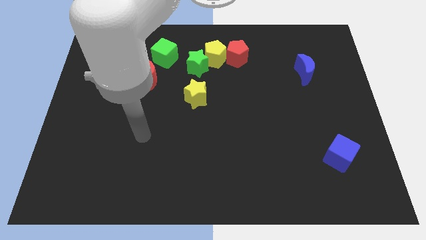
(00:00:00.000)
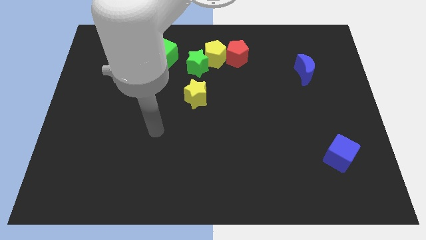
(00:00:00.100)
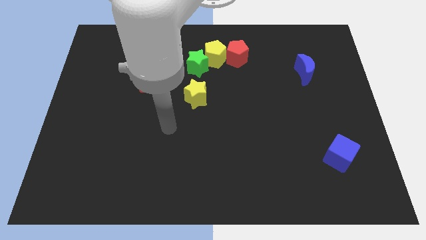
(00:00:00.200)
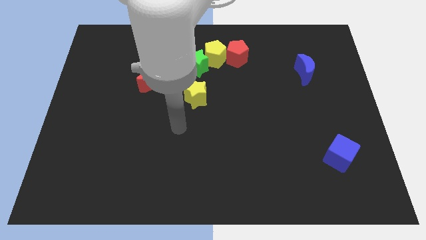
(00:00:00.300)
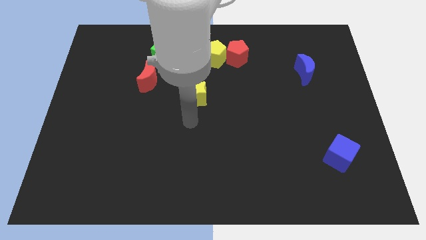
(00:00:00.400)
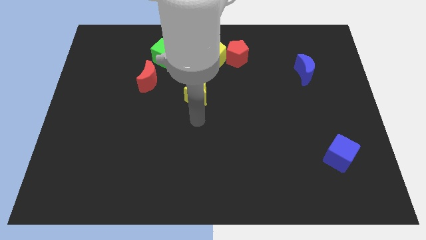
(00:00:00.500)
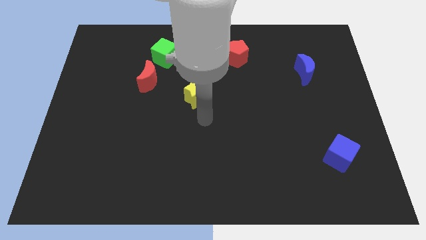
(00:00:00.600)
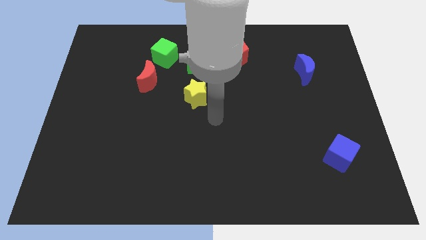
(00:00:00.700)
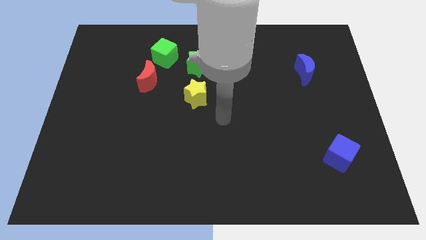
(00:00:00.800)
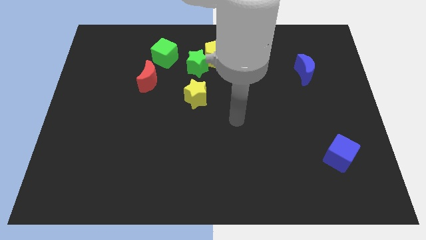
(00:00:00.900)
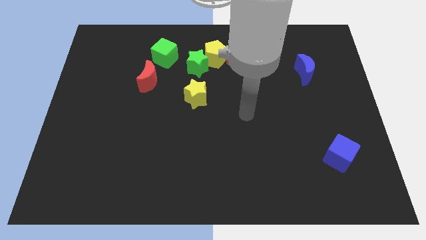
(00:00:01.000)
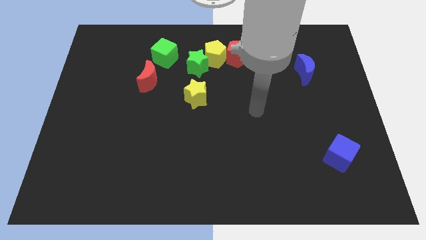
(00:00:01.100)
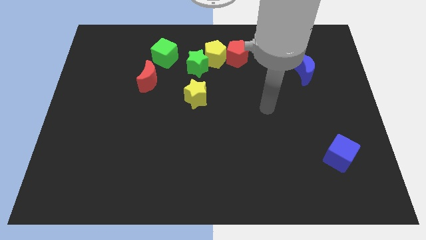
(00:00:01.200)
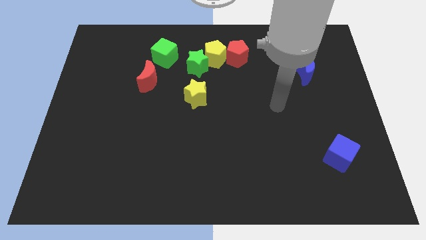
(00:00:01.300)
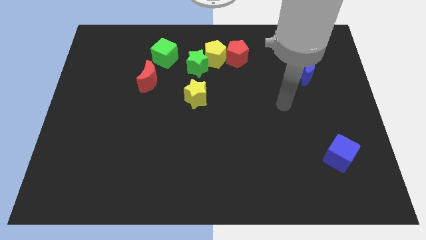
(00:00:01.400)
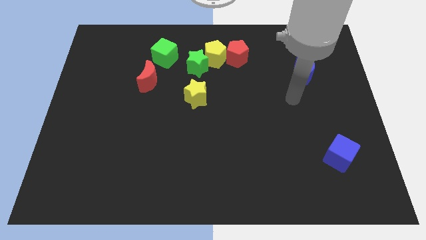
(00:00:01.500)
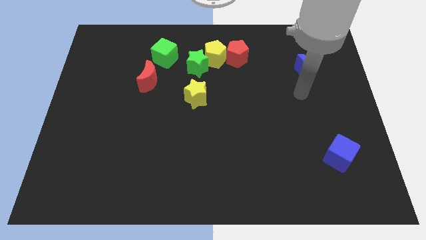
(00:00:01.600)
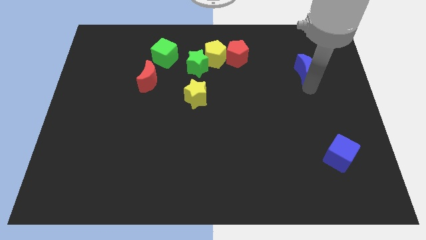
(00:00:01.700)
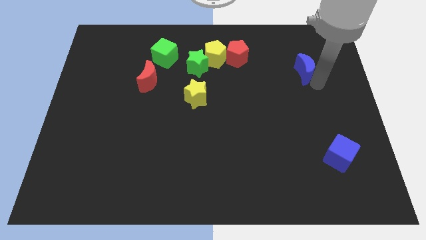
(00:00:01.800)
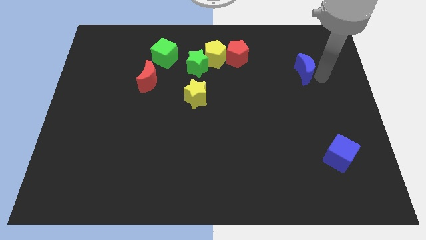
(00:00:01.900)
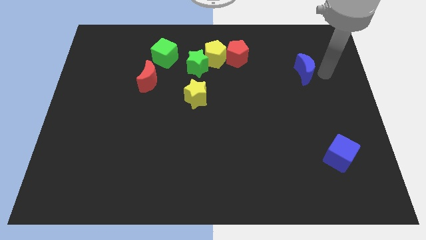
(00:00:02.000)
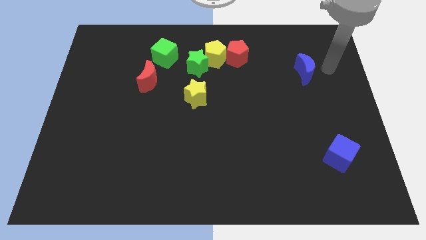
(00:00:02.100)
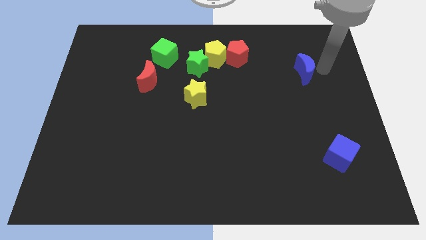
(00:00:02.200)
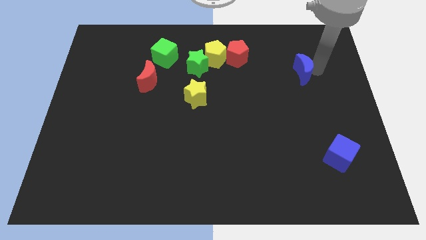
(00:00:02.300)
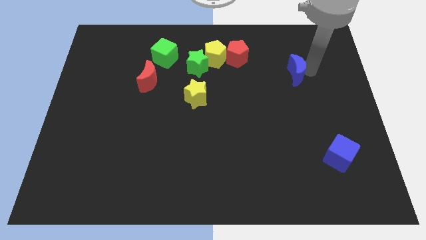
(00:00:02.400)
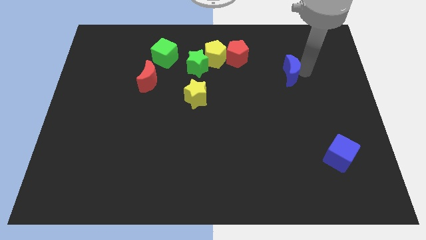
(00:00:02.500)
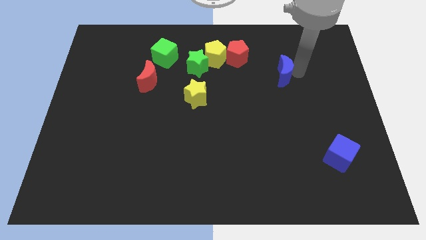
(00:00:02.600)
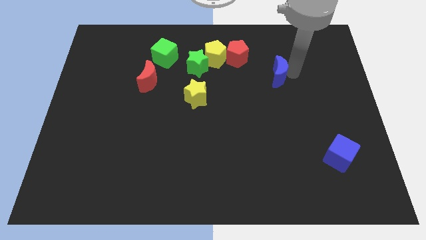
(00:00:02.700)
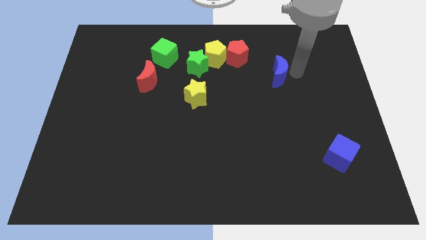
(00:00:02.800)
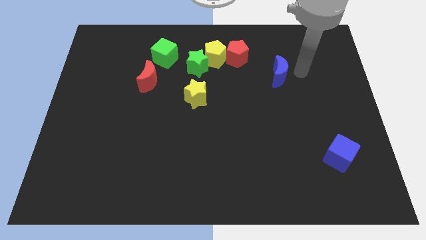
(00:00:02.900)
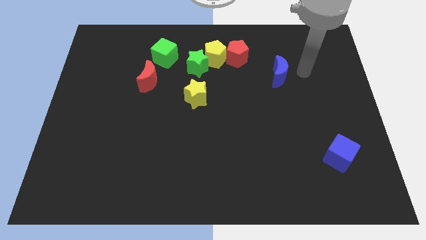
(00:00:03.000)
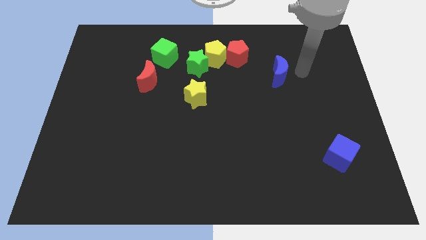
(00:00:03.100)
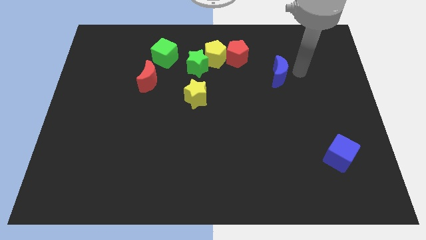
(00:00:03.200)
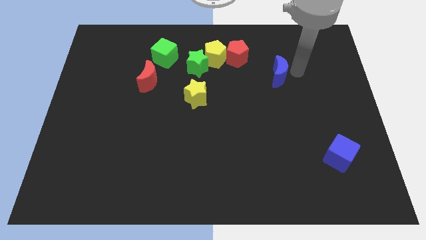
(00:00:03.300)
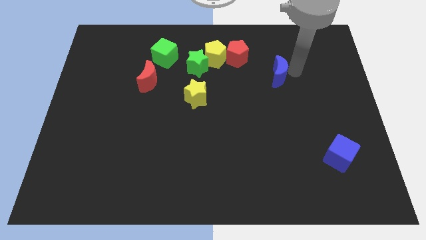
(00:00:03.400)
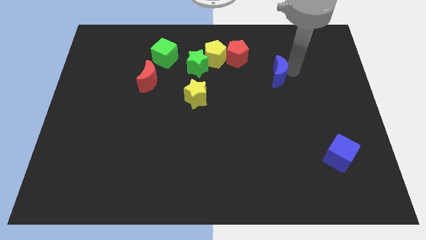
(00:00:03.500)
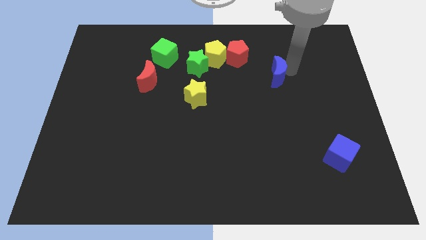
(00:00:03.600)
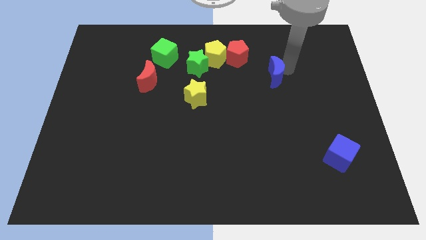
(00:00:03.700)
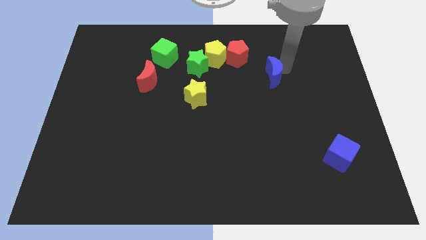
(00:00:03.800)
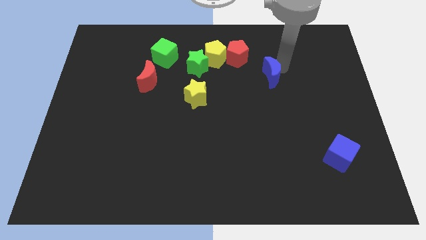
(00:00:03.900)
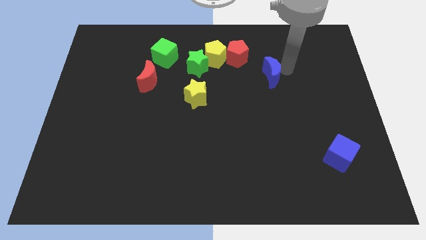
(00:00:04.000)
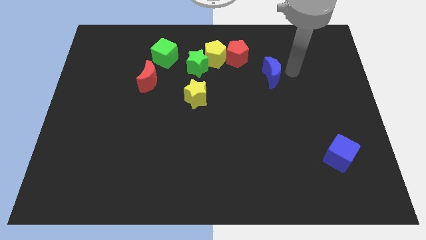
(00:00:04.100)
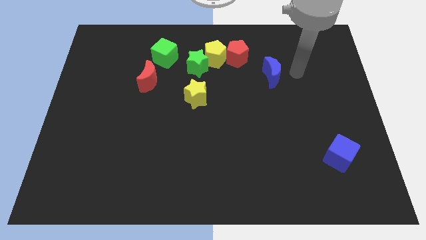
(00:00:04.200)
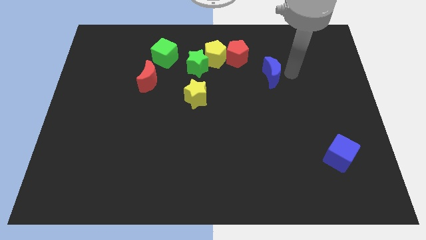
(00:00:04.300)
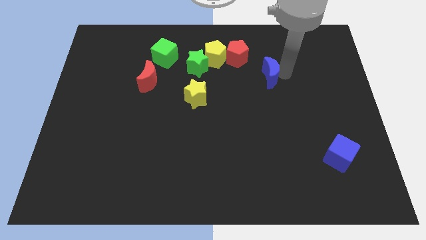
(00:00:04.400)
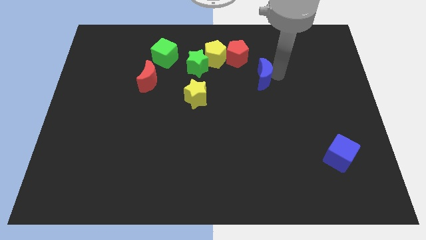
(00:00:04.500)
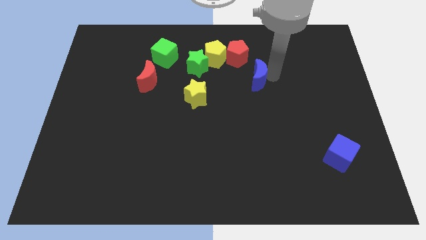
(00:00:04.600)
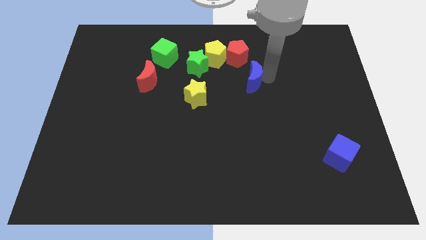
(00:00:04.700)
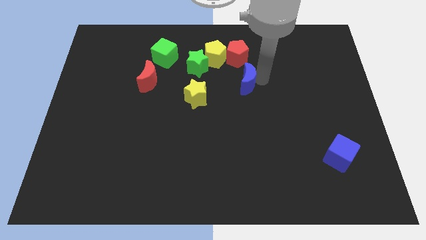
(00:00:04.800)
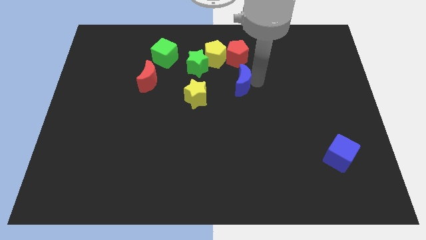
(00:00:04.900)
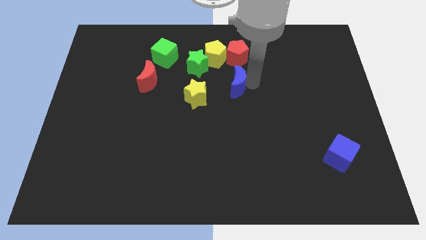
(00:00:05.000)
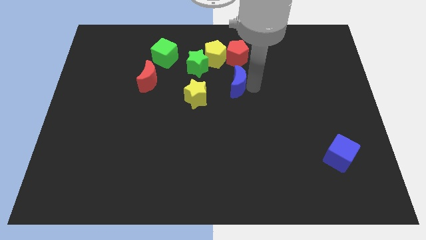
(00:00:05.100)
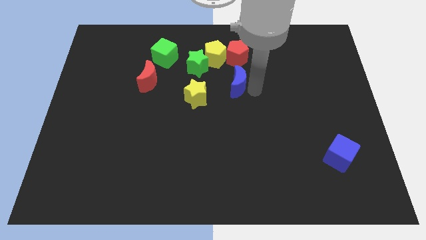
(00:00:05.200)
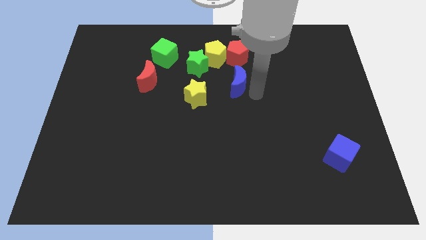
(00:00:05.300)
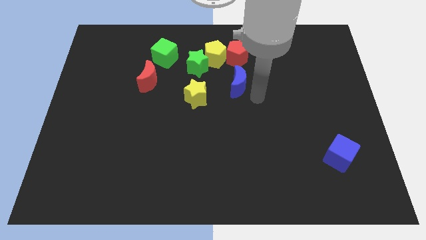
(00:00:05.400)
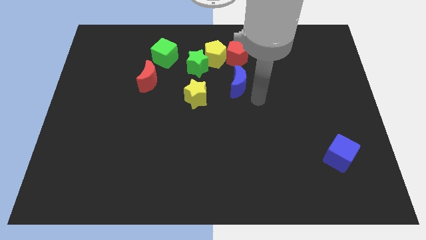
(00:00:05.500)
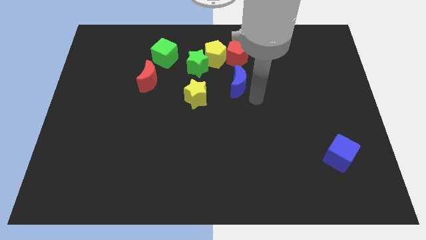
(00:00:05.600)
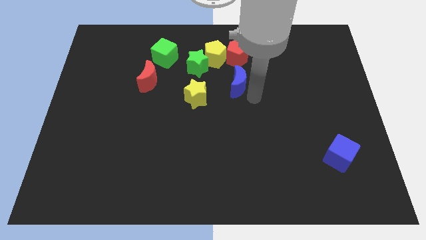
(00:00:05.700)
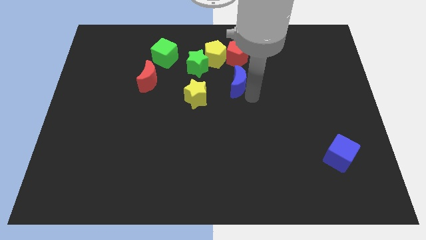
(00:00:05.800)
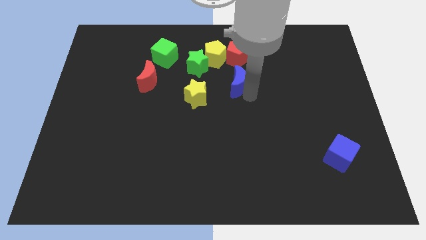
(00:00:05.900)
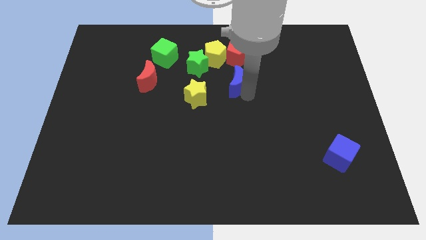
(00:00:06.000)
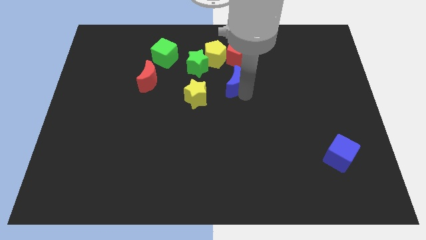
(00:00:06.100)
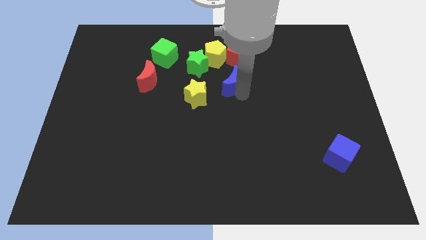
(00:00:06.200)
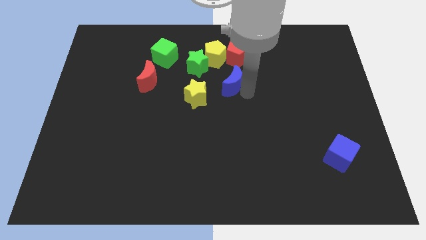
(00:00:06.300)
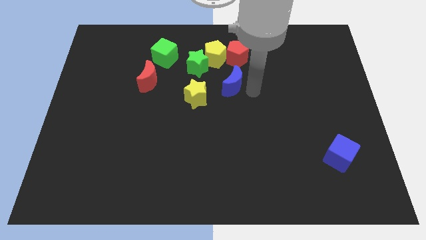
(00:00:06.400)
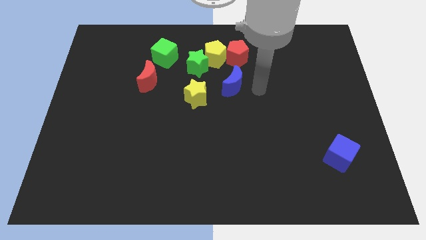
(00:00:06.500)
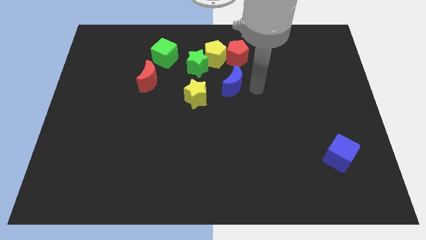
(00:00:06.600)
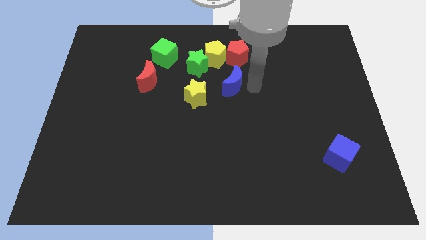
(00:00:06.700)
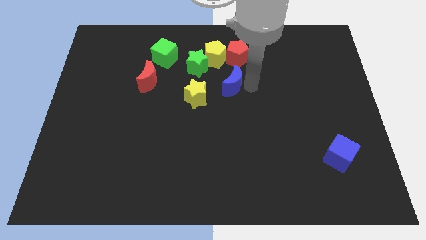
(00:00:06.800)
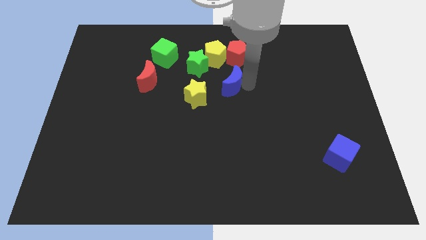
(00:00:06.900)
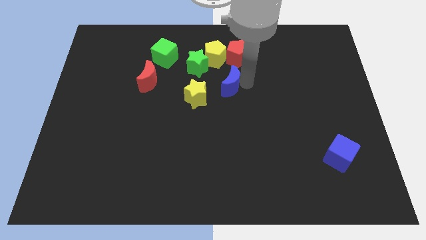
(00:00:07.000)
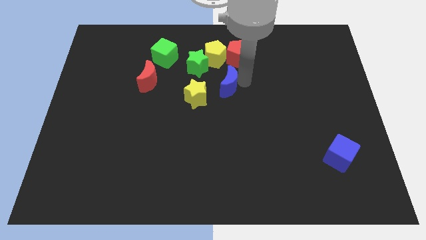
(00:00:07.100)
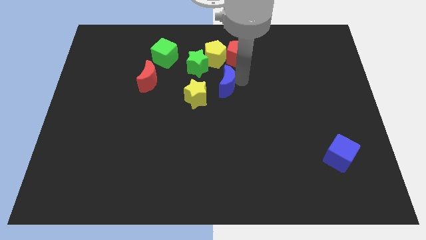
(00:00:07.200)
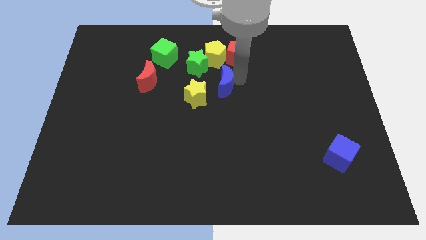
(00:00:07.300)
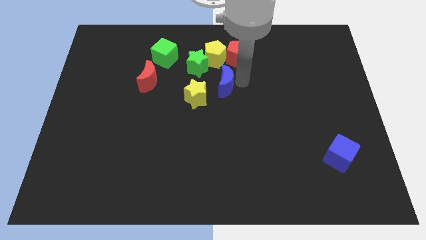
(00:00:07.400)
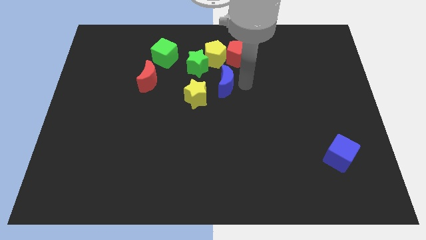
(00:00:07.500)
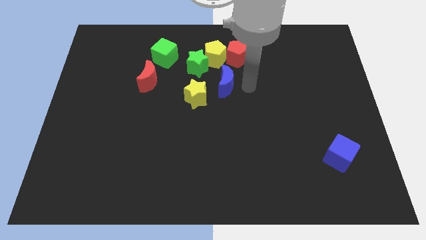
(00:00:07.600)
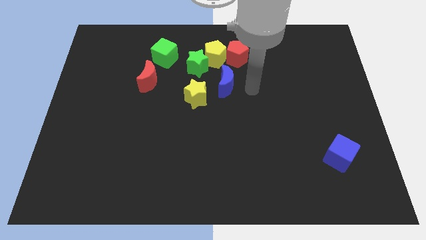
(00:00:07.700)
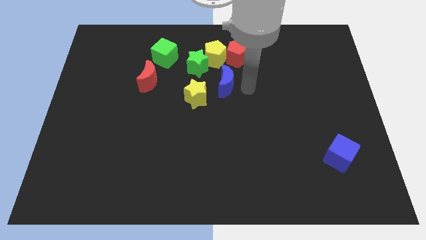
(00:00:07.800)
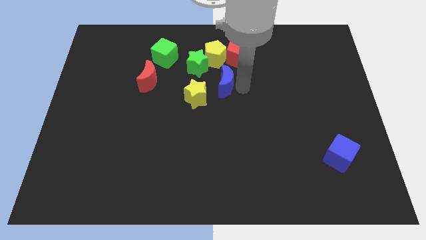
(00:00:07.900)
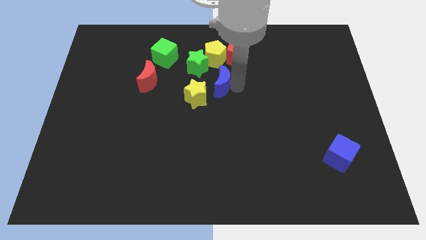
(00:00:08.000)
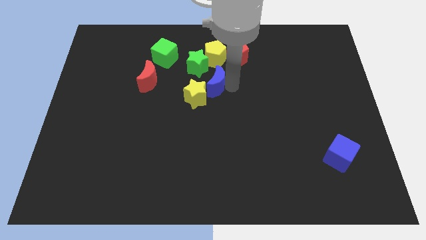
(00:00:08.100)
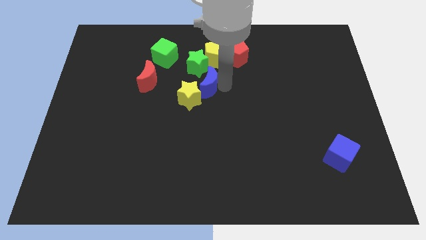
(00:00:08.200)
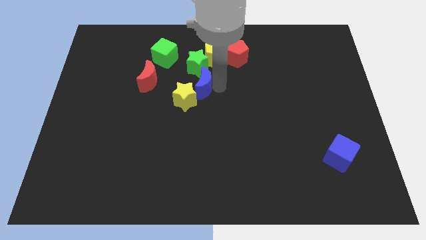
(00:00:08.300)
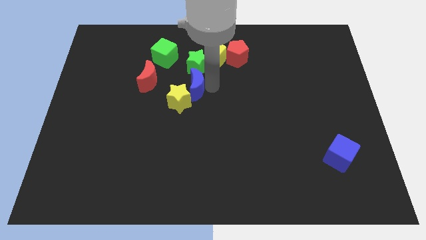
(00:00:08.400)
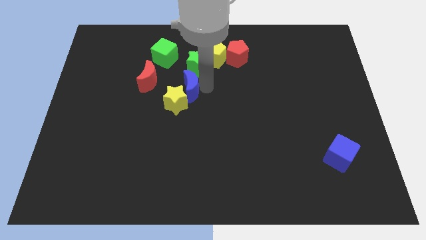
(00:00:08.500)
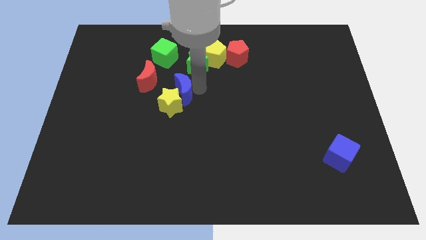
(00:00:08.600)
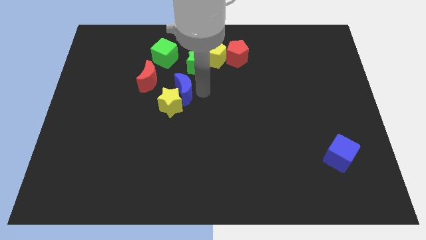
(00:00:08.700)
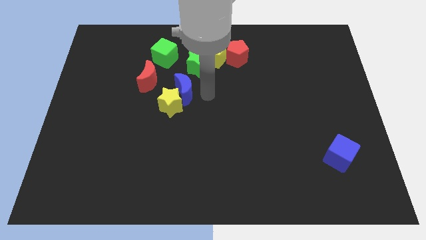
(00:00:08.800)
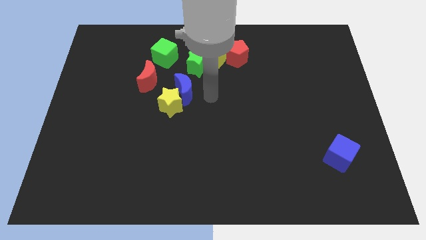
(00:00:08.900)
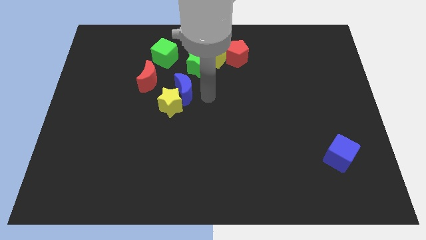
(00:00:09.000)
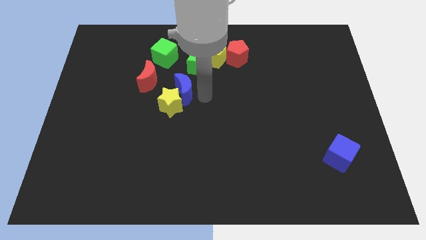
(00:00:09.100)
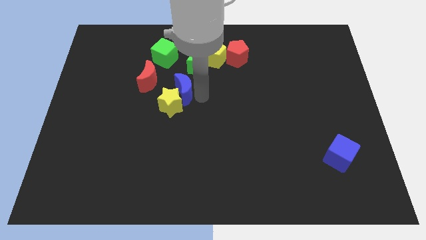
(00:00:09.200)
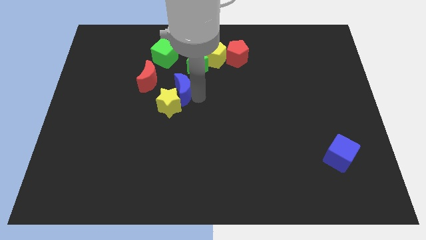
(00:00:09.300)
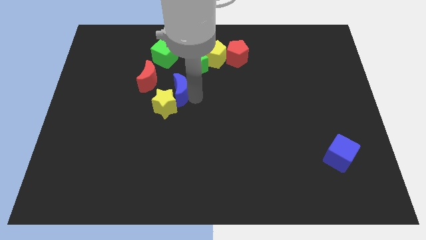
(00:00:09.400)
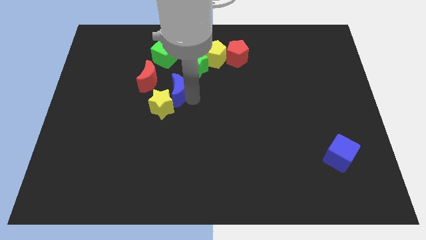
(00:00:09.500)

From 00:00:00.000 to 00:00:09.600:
push the blue moon to the bottom side of the green cube
